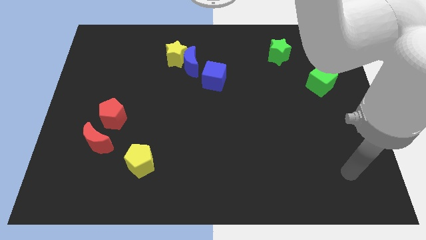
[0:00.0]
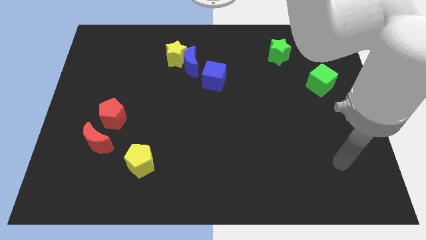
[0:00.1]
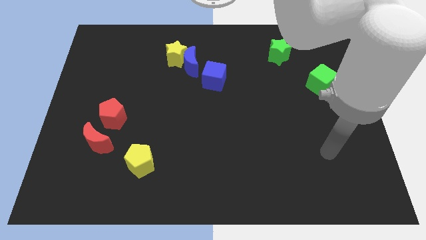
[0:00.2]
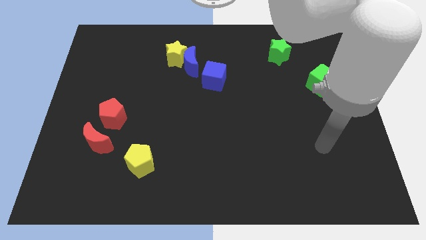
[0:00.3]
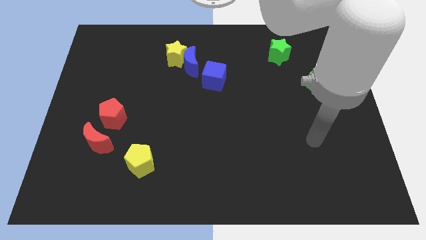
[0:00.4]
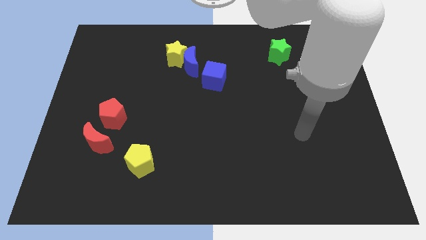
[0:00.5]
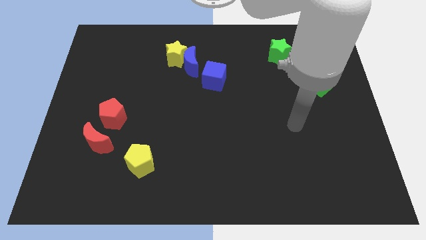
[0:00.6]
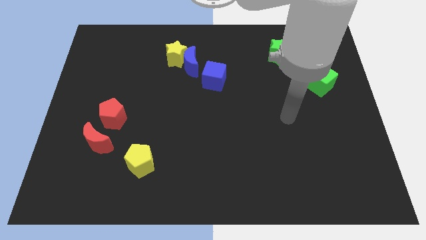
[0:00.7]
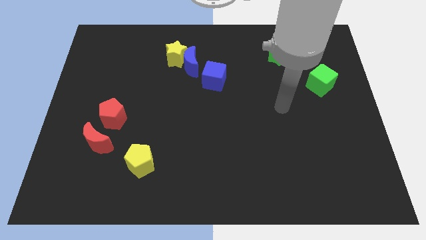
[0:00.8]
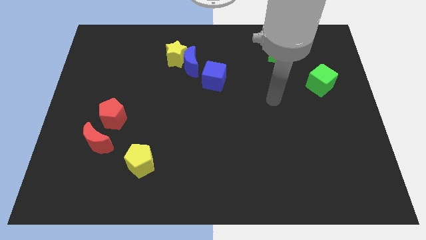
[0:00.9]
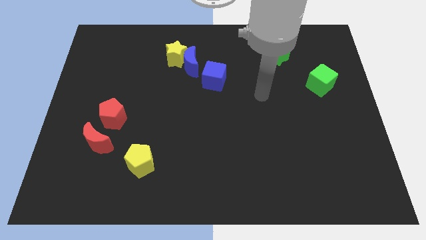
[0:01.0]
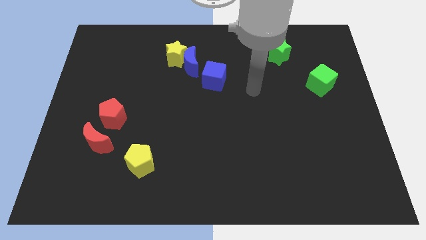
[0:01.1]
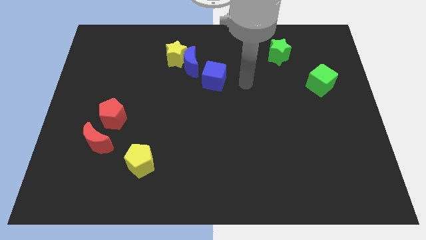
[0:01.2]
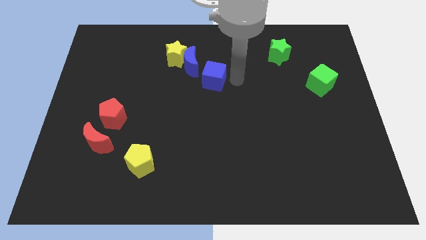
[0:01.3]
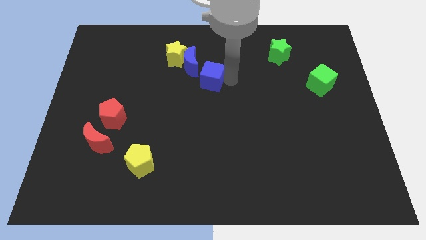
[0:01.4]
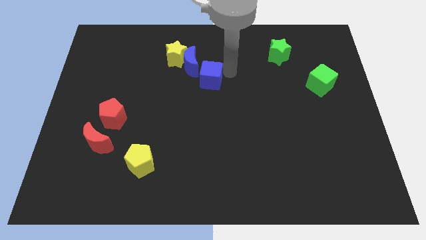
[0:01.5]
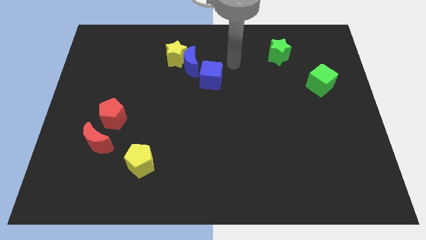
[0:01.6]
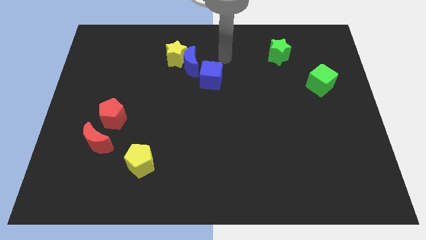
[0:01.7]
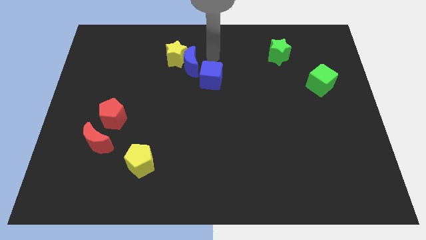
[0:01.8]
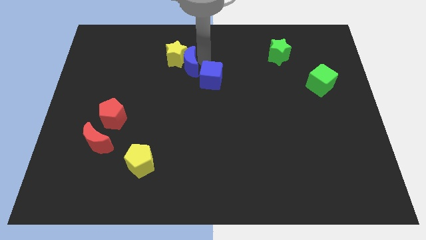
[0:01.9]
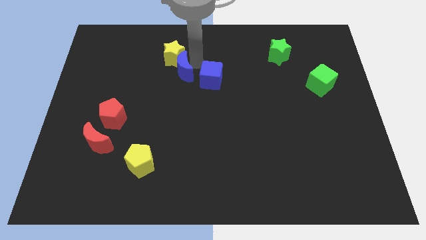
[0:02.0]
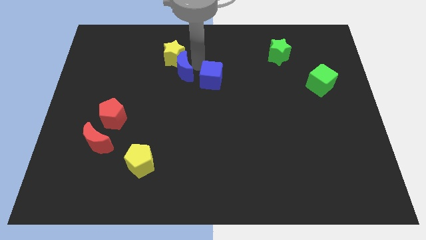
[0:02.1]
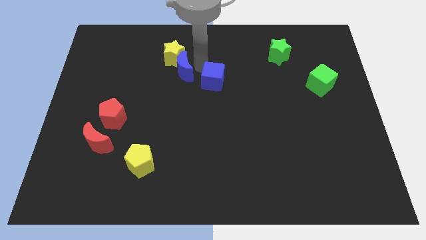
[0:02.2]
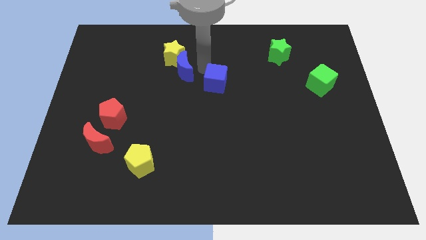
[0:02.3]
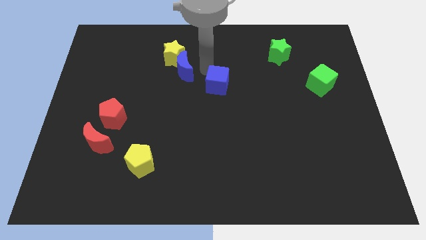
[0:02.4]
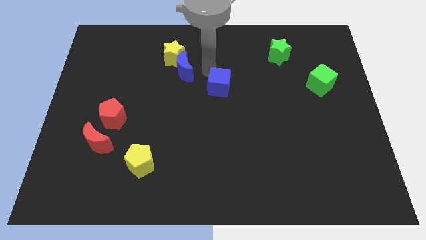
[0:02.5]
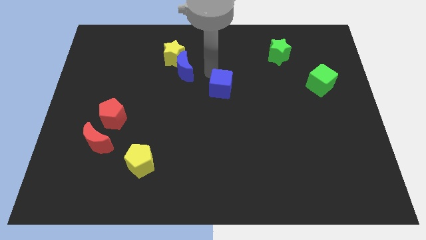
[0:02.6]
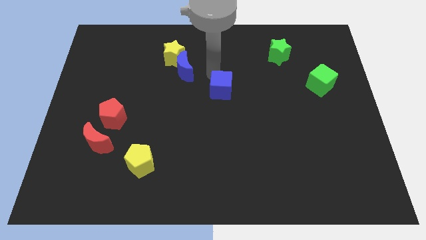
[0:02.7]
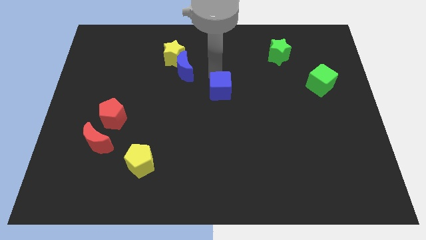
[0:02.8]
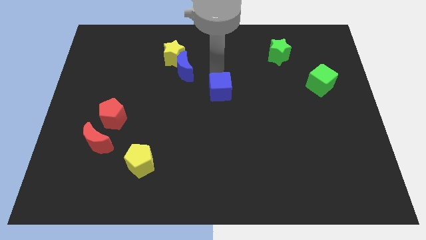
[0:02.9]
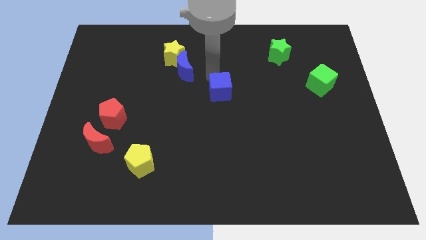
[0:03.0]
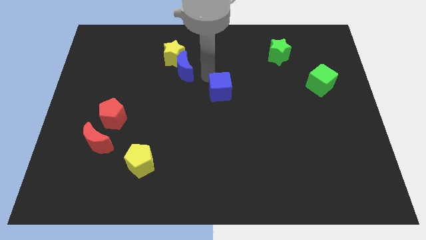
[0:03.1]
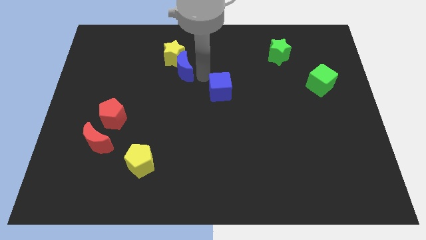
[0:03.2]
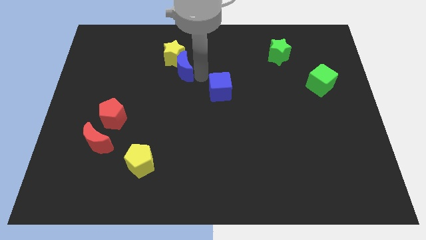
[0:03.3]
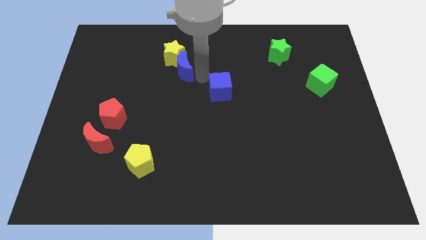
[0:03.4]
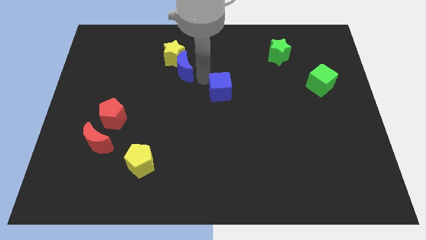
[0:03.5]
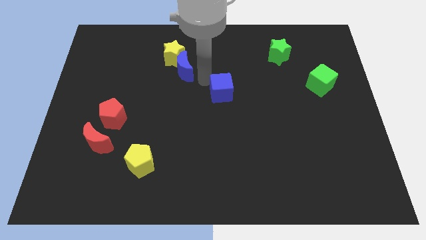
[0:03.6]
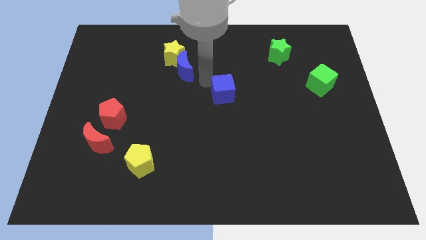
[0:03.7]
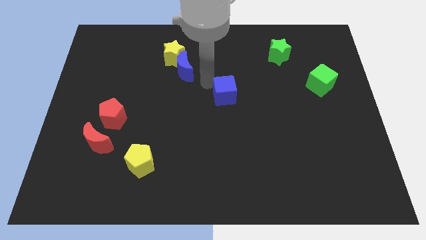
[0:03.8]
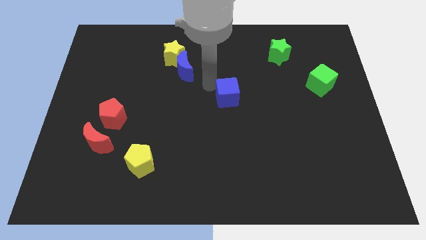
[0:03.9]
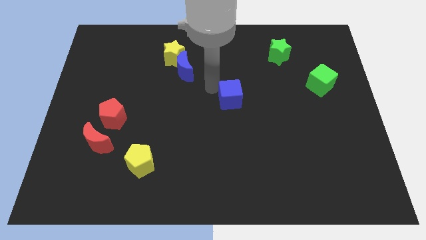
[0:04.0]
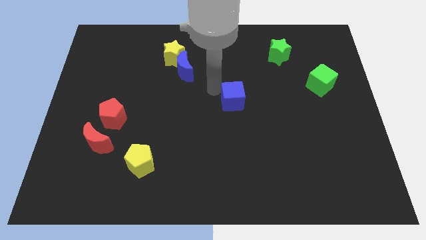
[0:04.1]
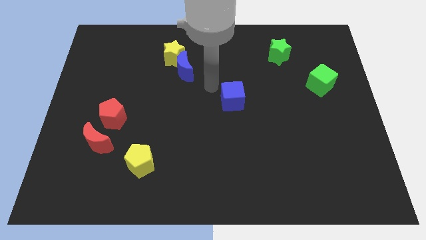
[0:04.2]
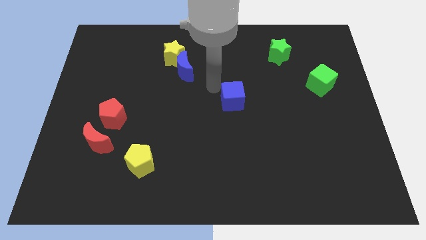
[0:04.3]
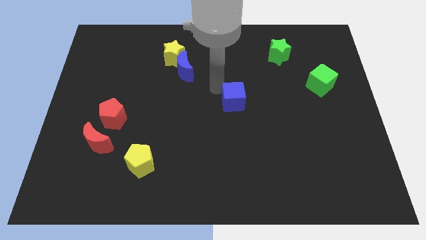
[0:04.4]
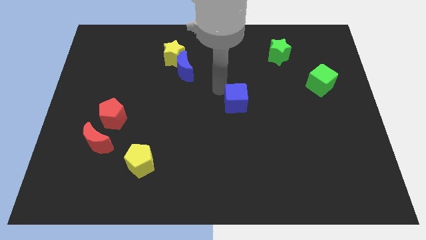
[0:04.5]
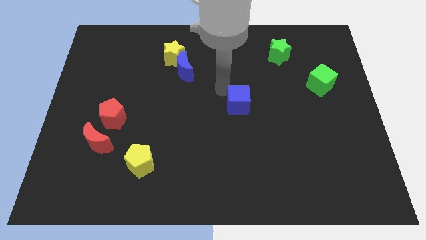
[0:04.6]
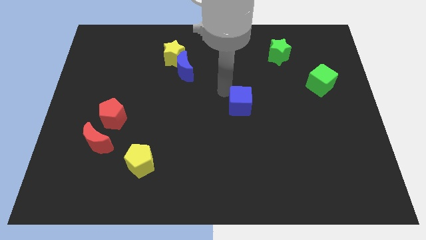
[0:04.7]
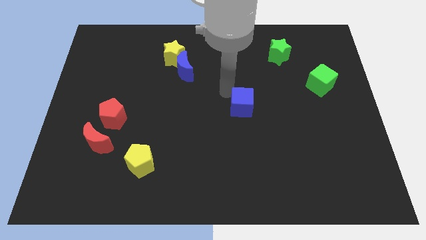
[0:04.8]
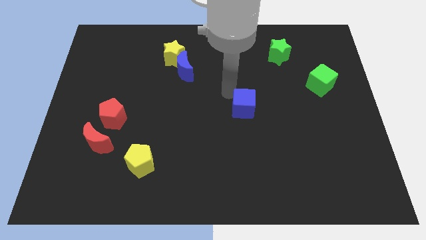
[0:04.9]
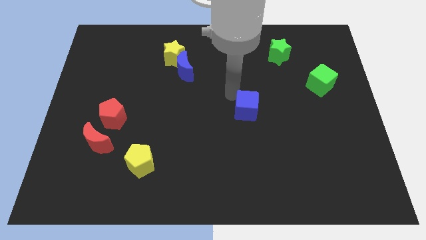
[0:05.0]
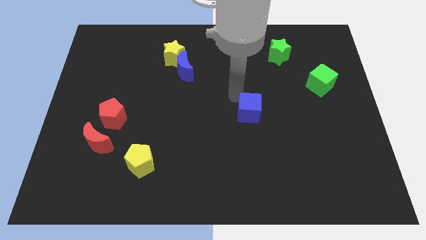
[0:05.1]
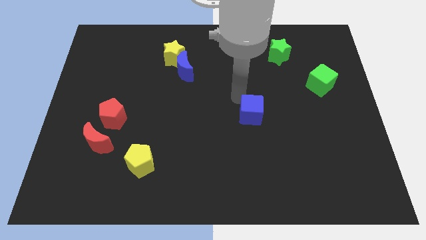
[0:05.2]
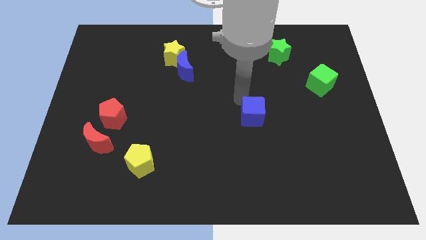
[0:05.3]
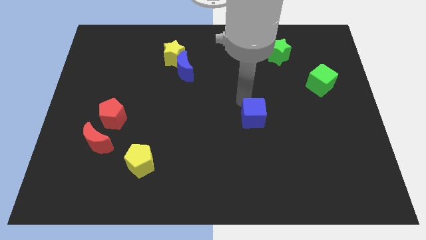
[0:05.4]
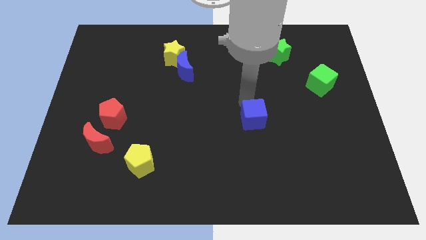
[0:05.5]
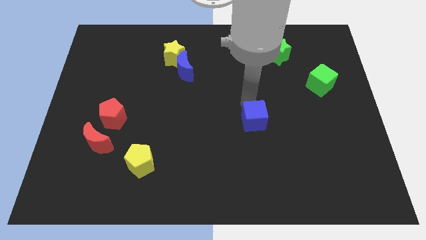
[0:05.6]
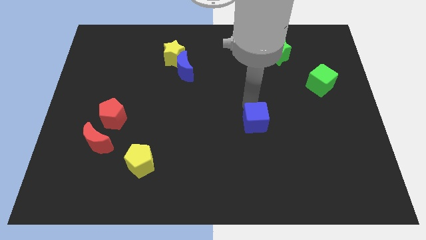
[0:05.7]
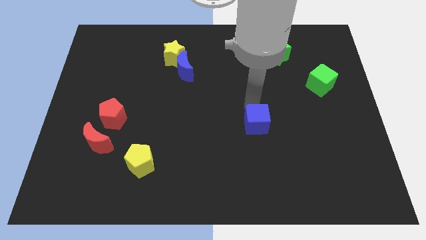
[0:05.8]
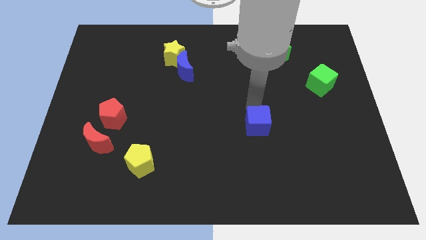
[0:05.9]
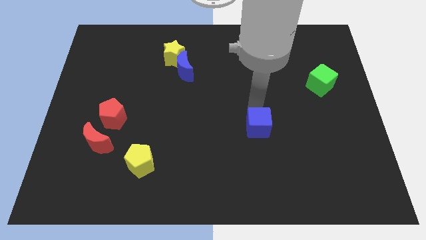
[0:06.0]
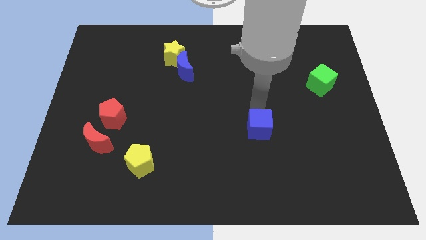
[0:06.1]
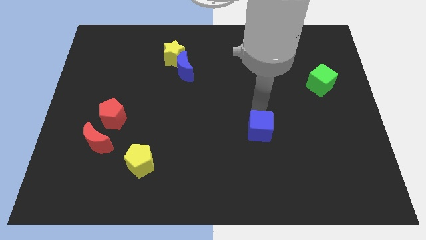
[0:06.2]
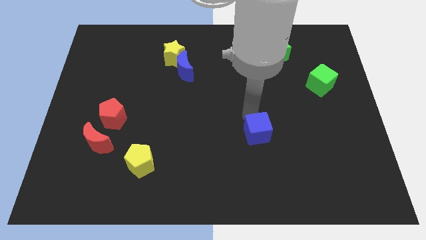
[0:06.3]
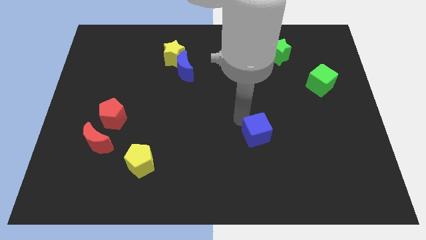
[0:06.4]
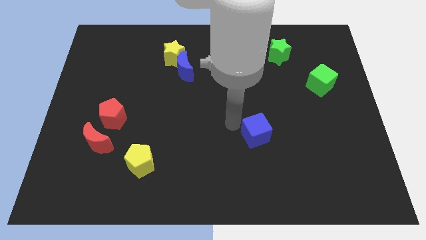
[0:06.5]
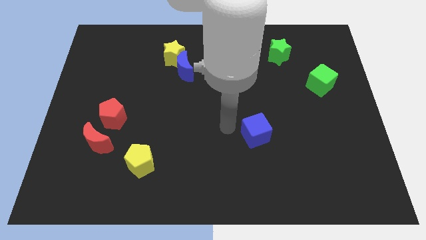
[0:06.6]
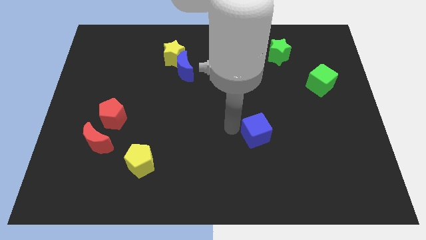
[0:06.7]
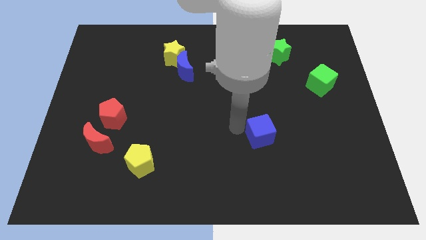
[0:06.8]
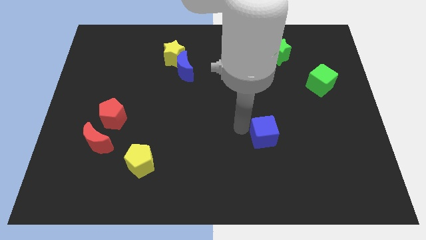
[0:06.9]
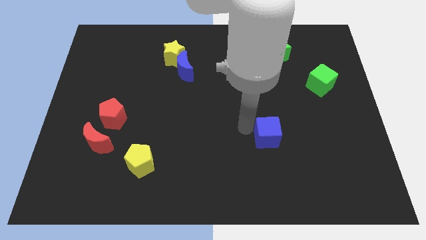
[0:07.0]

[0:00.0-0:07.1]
move the blue cube downwards and to the right diagonally

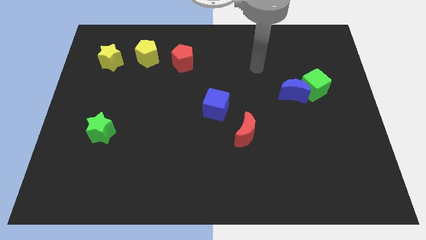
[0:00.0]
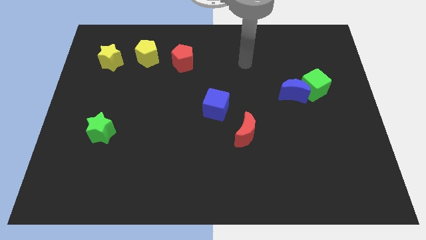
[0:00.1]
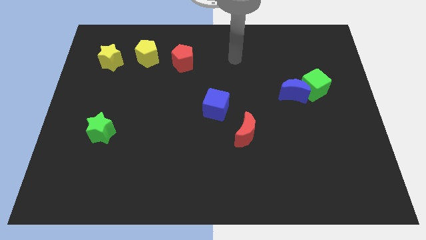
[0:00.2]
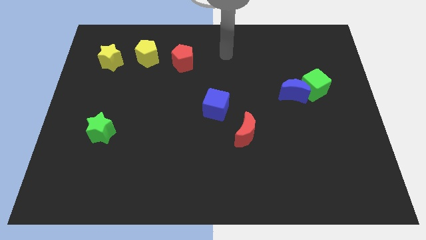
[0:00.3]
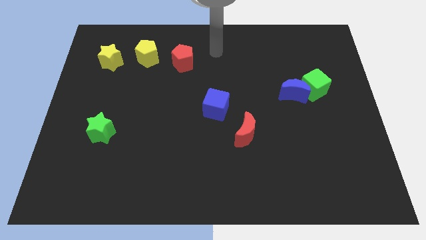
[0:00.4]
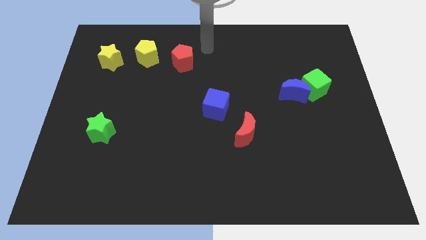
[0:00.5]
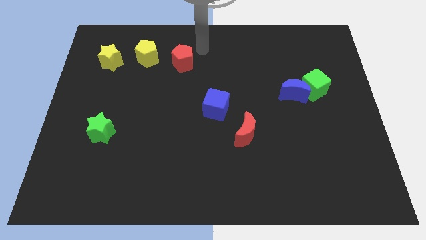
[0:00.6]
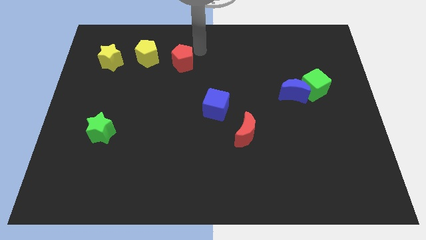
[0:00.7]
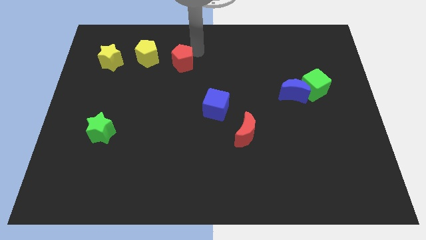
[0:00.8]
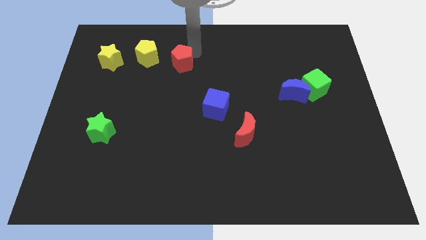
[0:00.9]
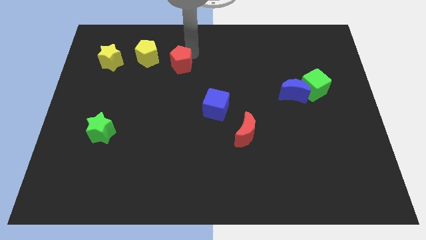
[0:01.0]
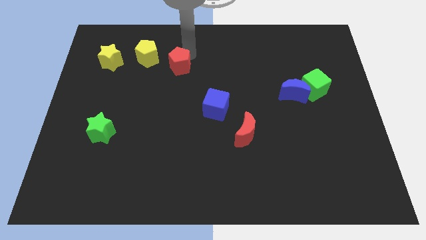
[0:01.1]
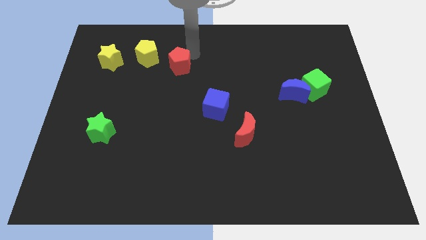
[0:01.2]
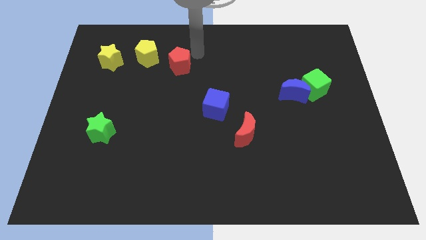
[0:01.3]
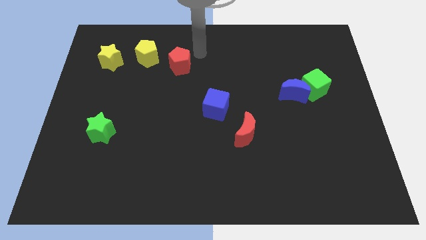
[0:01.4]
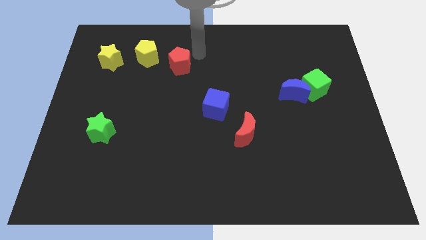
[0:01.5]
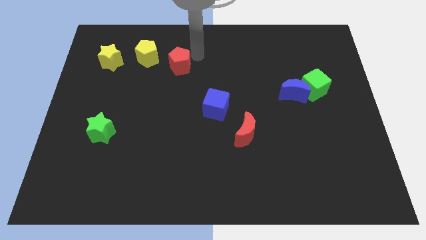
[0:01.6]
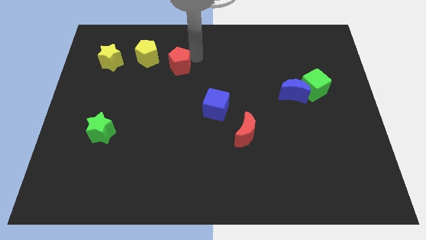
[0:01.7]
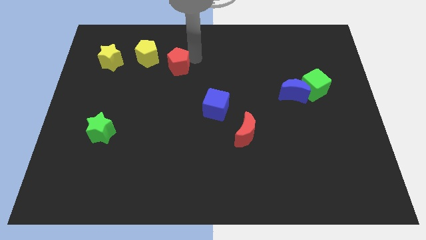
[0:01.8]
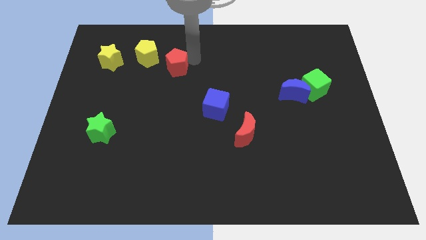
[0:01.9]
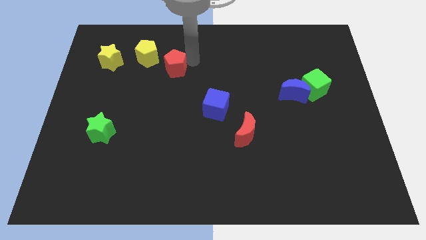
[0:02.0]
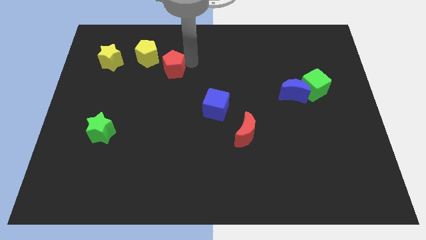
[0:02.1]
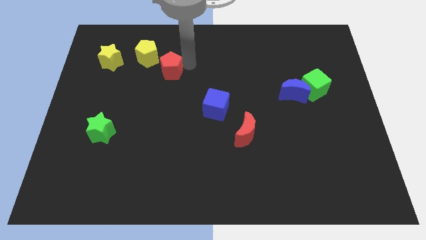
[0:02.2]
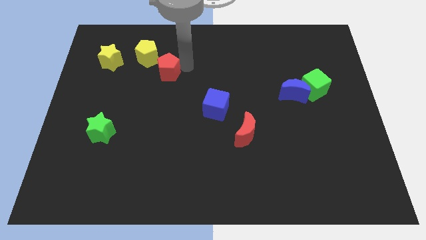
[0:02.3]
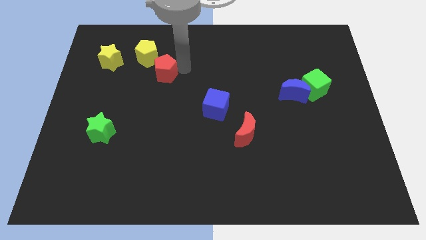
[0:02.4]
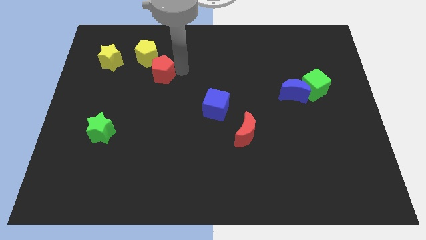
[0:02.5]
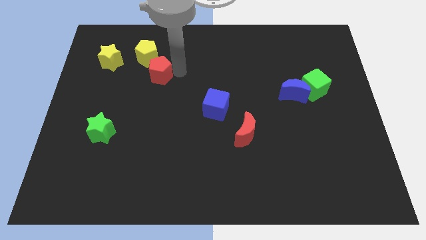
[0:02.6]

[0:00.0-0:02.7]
move the red pentagon slightly diagonally down and left
